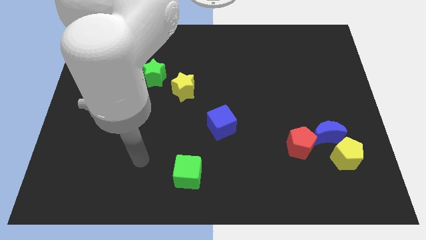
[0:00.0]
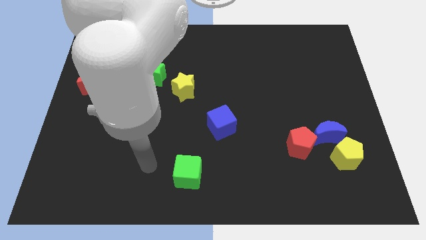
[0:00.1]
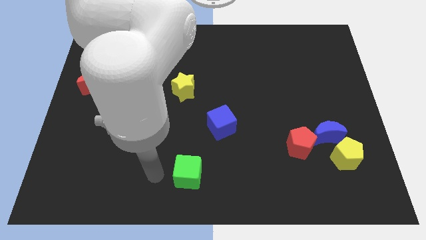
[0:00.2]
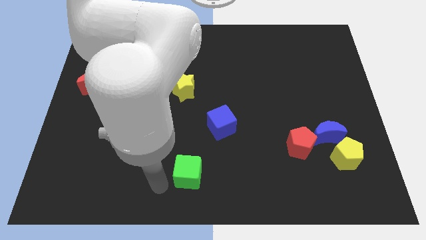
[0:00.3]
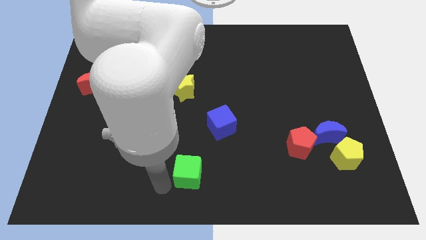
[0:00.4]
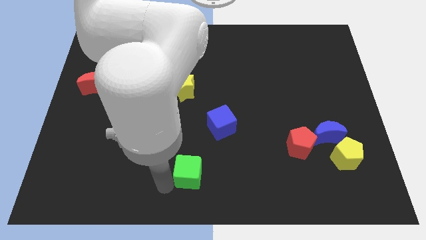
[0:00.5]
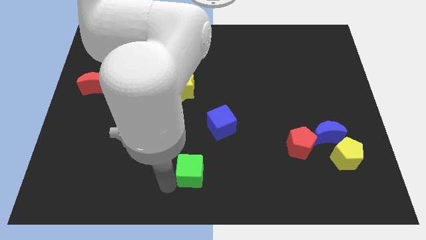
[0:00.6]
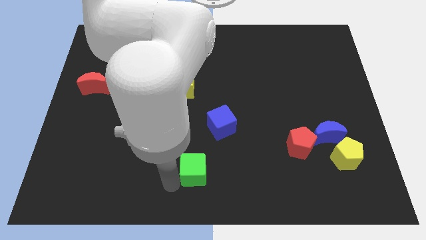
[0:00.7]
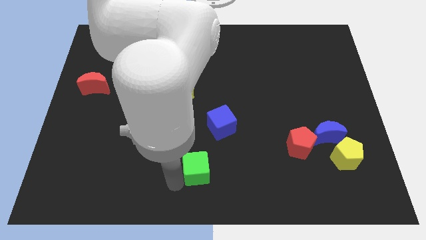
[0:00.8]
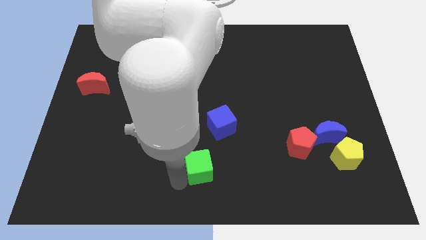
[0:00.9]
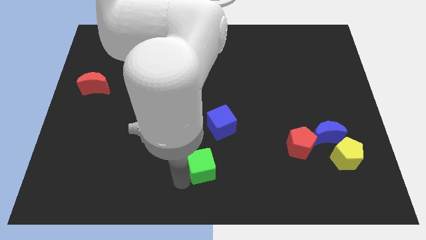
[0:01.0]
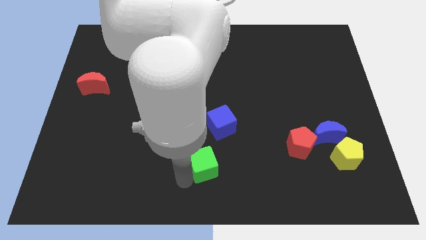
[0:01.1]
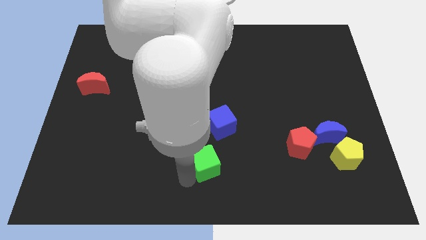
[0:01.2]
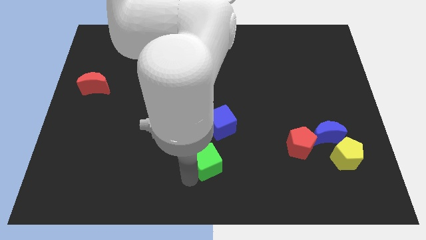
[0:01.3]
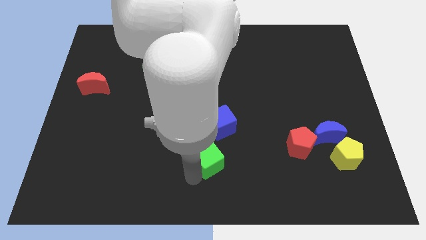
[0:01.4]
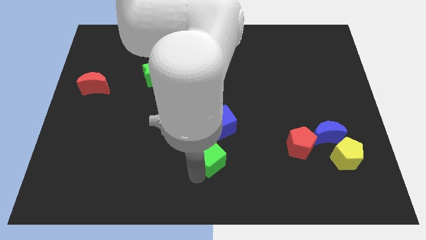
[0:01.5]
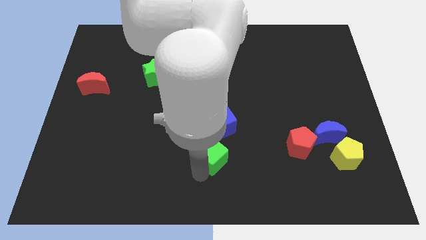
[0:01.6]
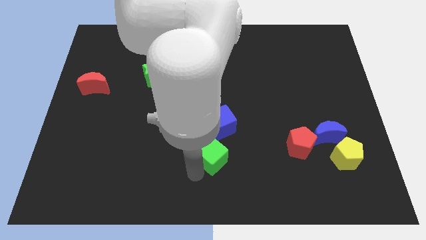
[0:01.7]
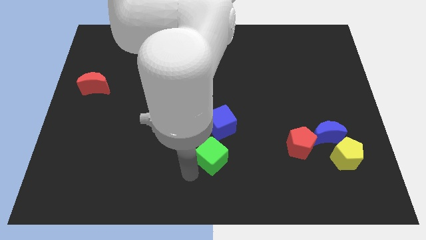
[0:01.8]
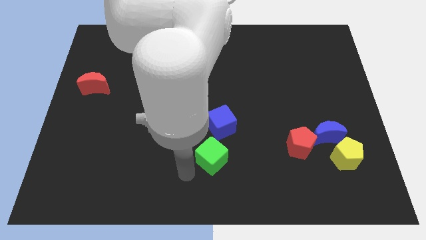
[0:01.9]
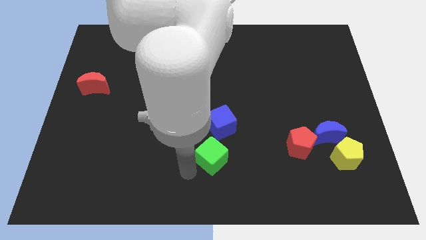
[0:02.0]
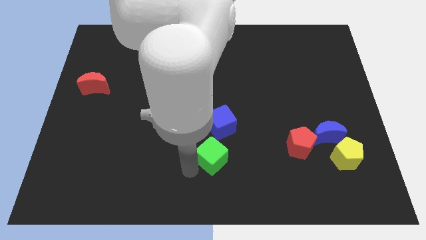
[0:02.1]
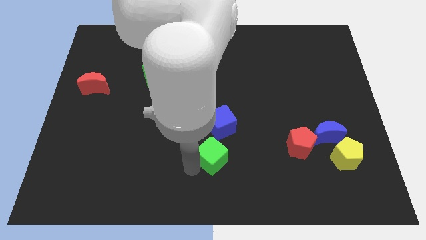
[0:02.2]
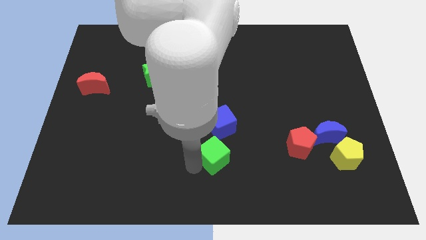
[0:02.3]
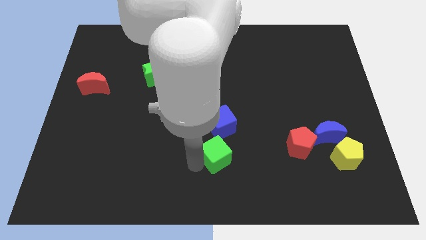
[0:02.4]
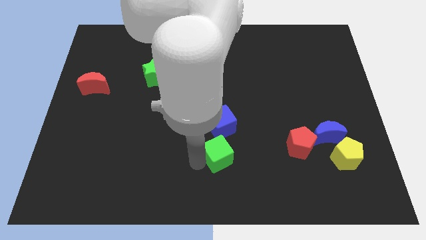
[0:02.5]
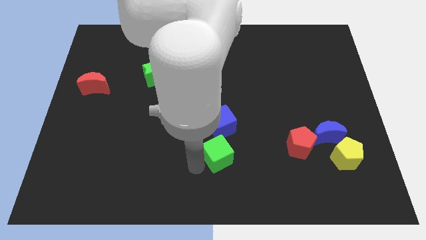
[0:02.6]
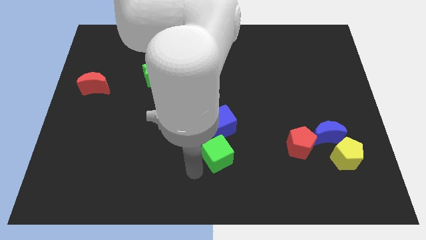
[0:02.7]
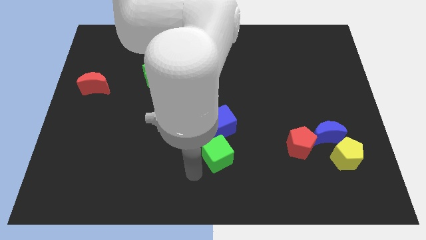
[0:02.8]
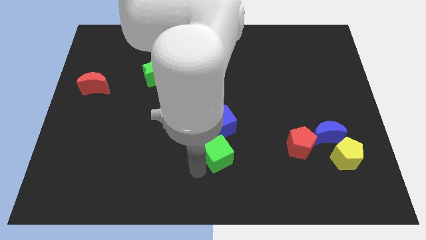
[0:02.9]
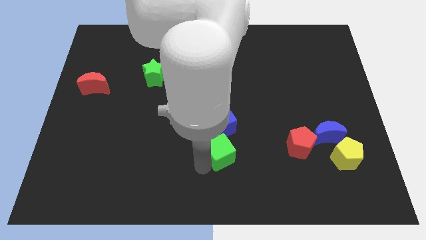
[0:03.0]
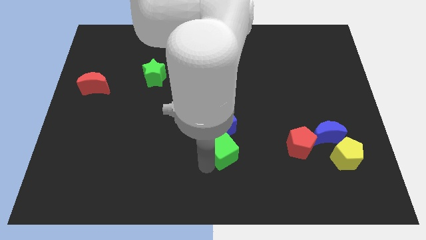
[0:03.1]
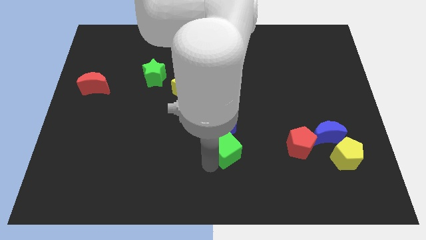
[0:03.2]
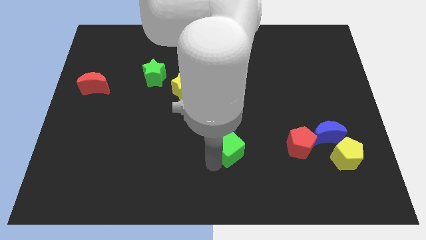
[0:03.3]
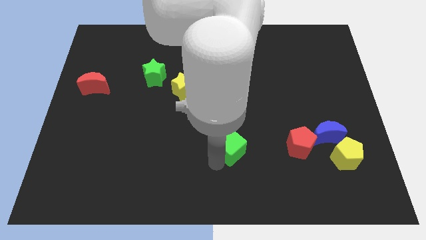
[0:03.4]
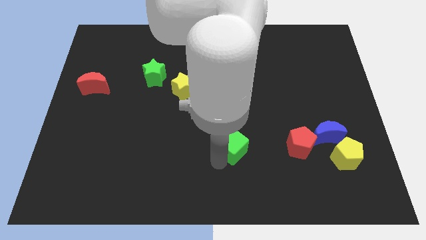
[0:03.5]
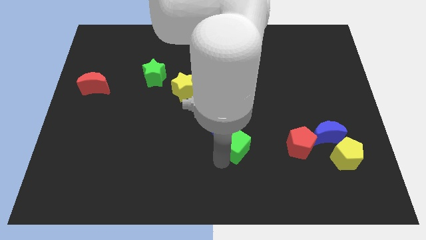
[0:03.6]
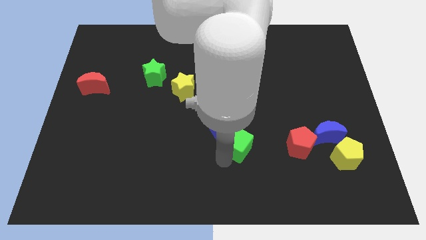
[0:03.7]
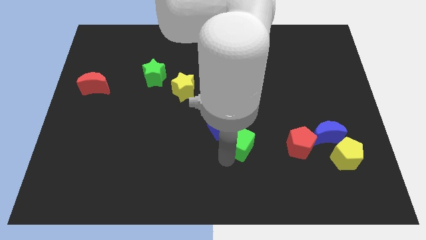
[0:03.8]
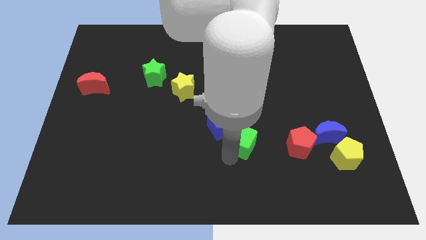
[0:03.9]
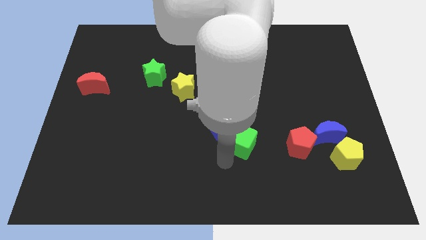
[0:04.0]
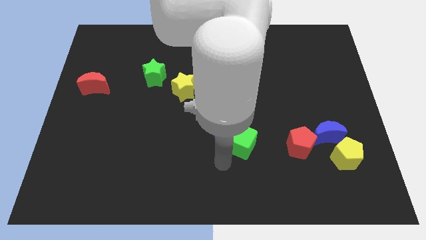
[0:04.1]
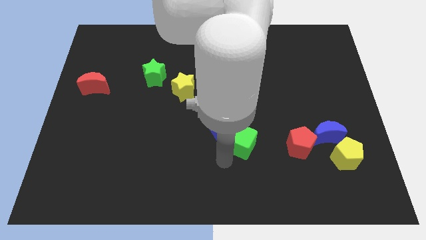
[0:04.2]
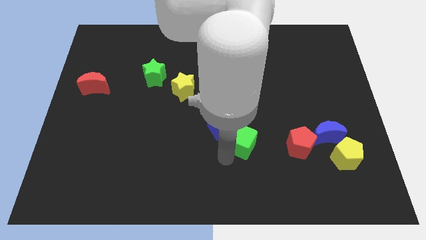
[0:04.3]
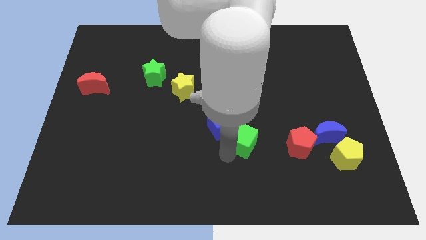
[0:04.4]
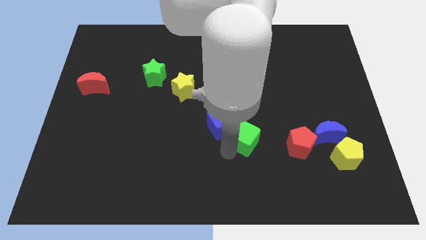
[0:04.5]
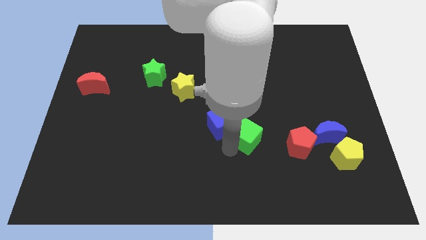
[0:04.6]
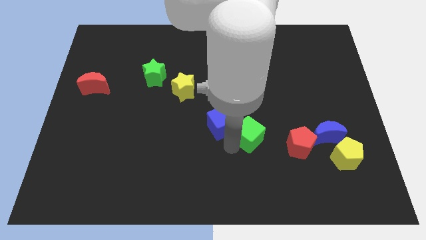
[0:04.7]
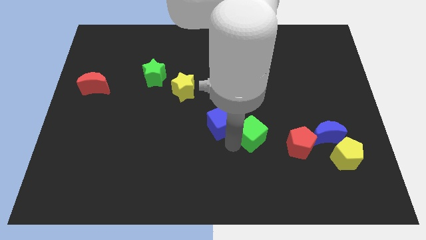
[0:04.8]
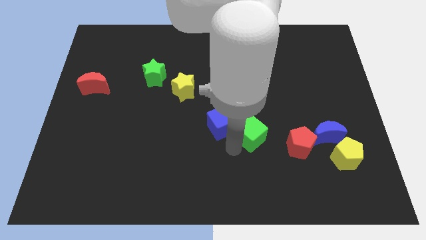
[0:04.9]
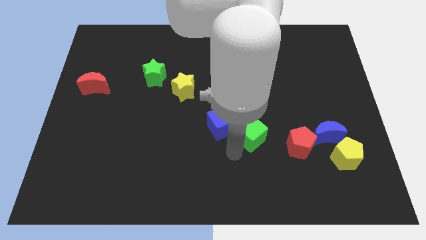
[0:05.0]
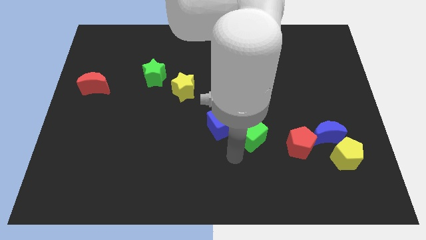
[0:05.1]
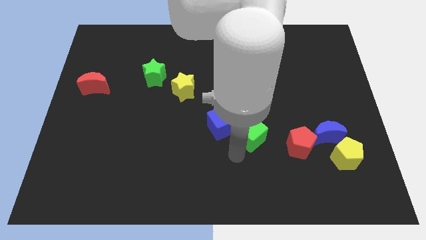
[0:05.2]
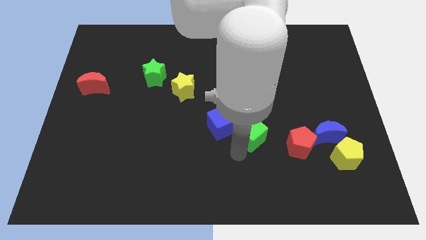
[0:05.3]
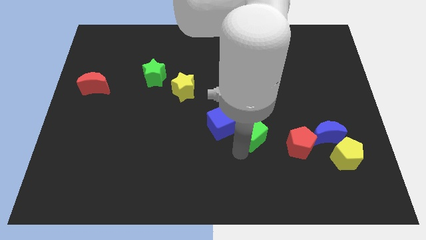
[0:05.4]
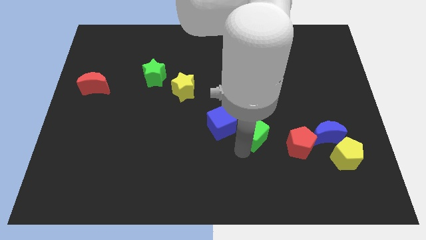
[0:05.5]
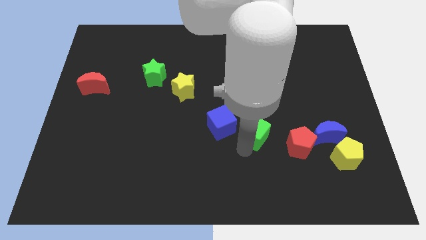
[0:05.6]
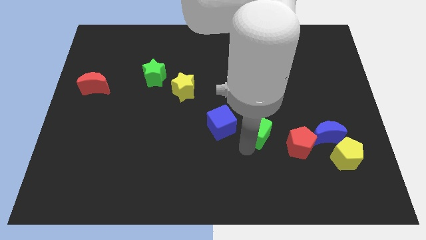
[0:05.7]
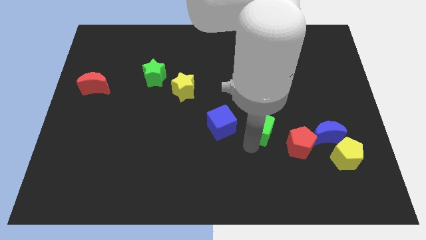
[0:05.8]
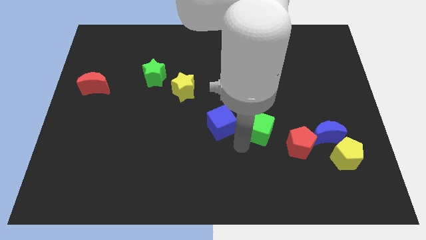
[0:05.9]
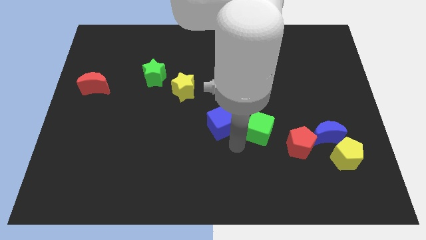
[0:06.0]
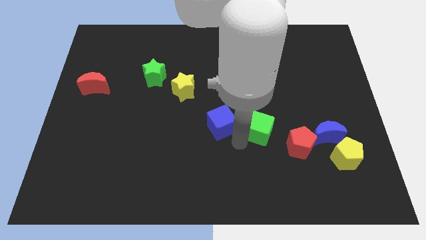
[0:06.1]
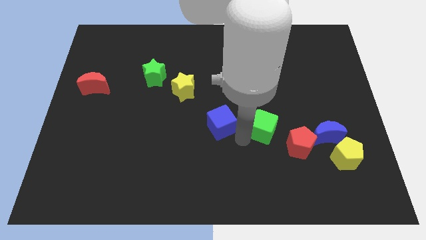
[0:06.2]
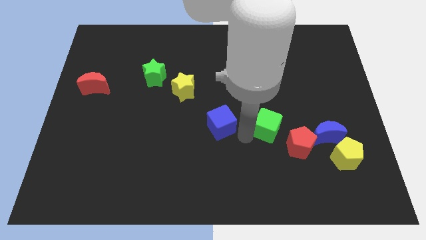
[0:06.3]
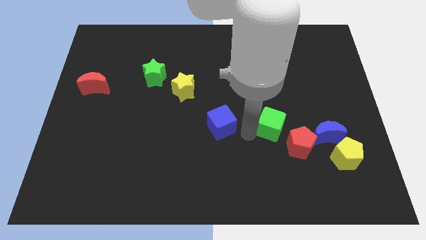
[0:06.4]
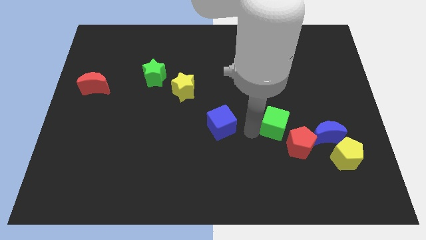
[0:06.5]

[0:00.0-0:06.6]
push the green cube above the red pentagon

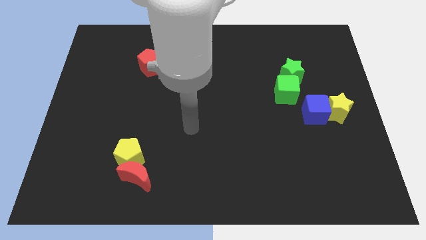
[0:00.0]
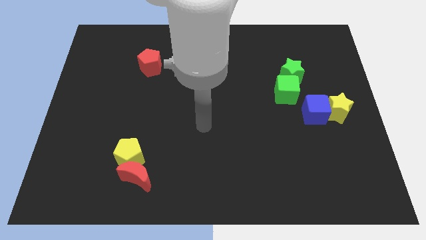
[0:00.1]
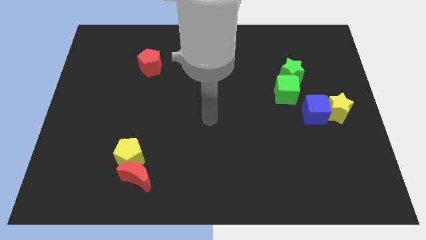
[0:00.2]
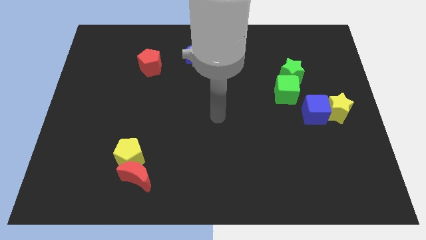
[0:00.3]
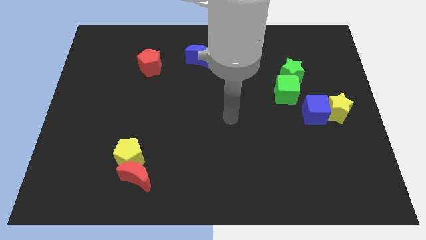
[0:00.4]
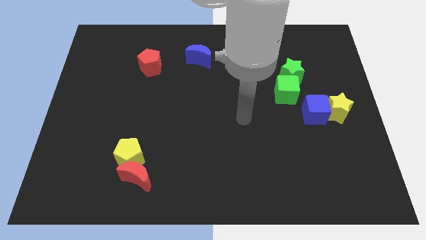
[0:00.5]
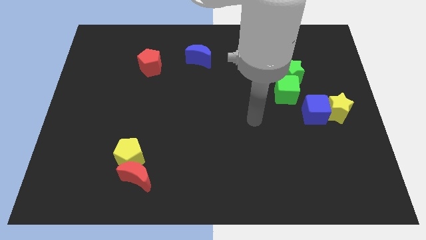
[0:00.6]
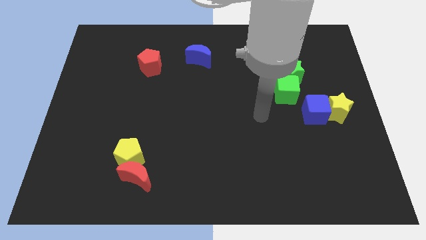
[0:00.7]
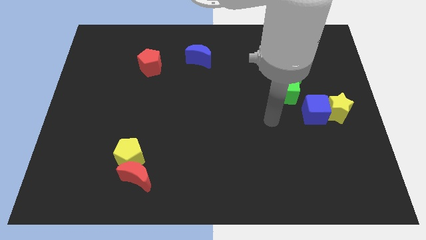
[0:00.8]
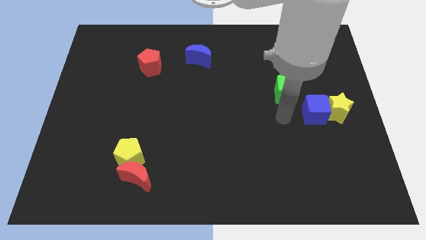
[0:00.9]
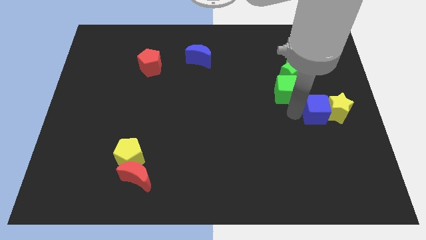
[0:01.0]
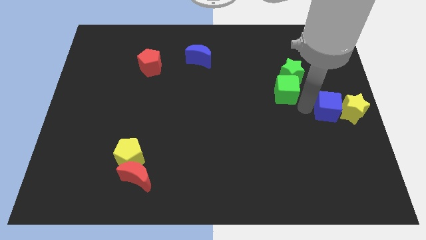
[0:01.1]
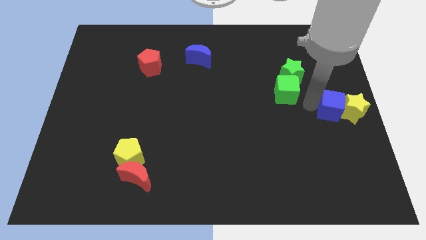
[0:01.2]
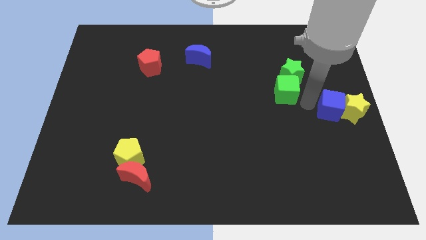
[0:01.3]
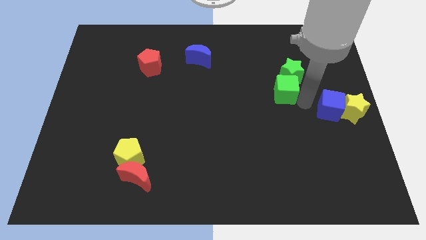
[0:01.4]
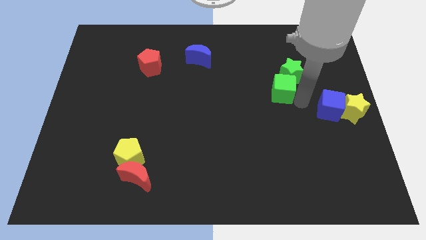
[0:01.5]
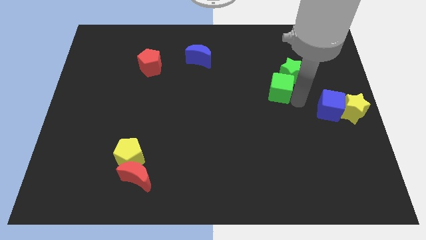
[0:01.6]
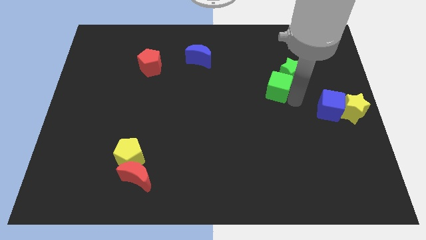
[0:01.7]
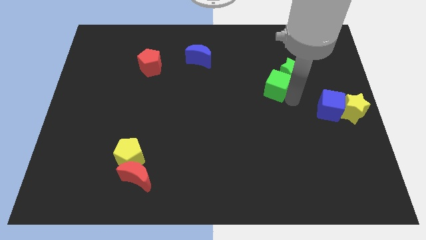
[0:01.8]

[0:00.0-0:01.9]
move the green cube to the left of the green star
